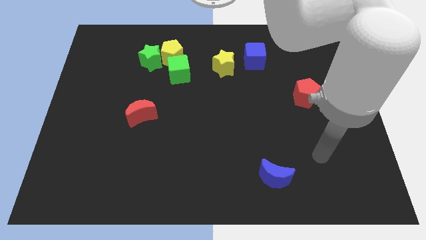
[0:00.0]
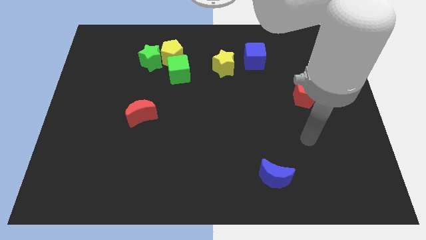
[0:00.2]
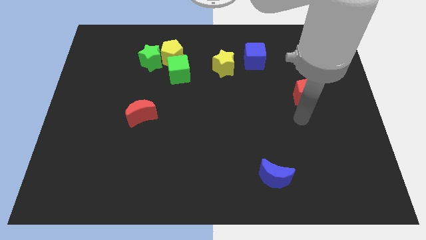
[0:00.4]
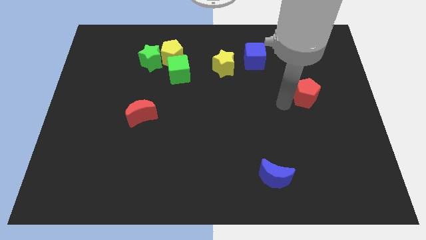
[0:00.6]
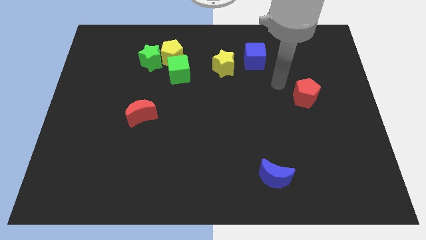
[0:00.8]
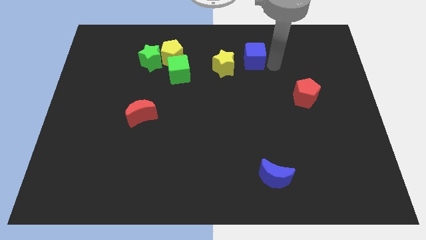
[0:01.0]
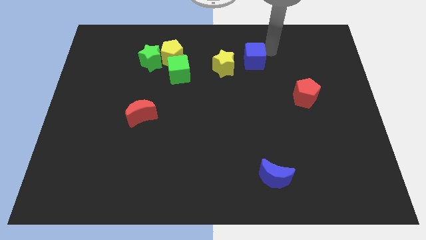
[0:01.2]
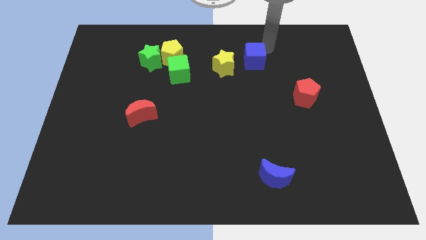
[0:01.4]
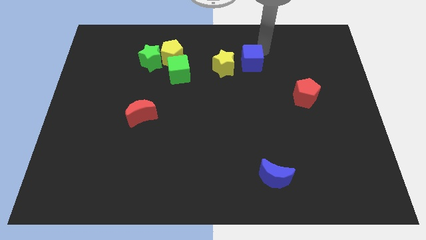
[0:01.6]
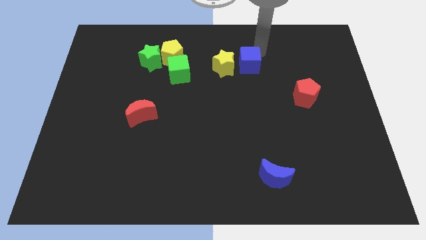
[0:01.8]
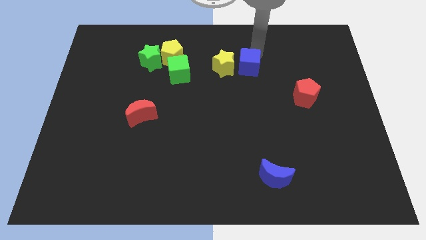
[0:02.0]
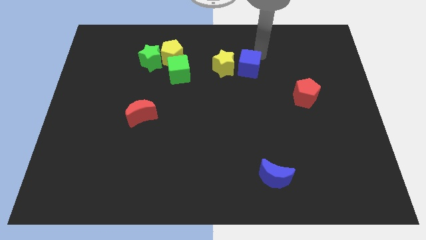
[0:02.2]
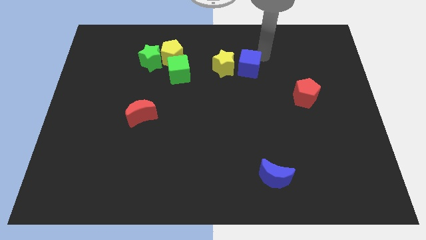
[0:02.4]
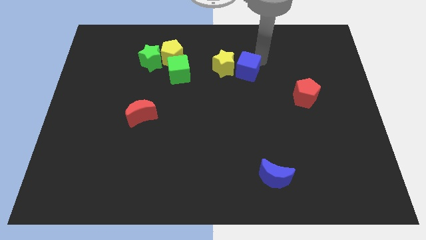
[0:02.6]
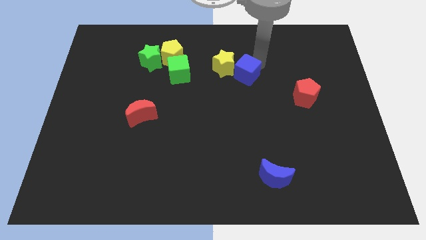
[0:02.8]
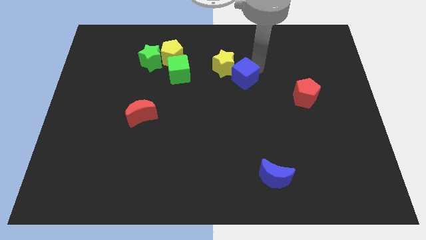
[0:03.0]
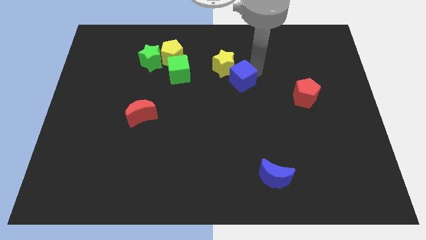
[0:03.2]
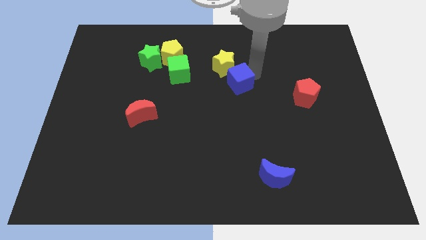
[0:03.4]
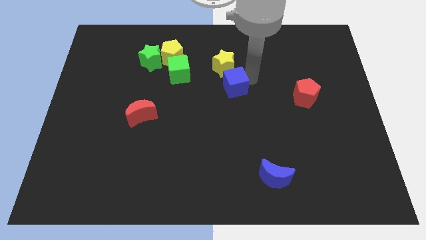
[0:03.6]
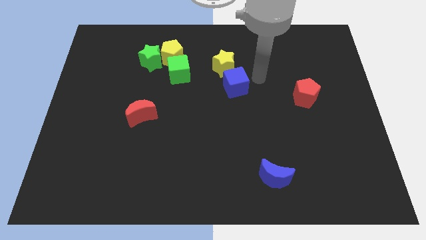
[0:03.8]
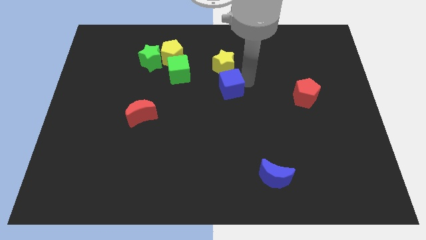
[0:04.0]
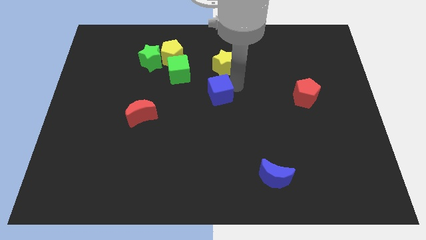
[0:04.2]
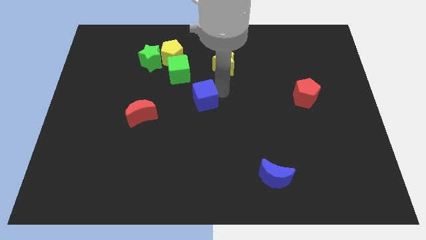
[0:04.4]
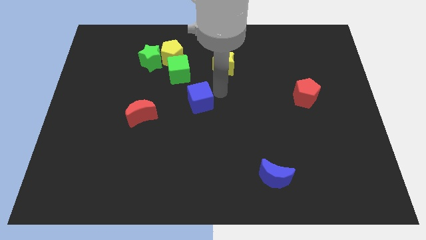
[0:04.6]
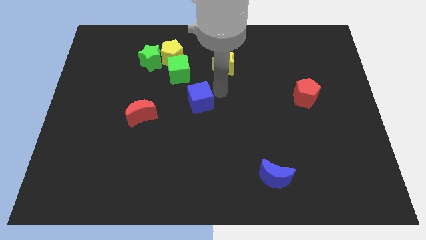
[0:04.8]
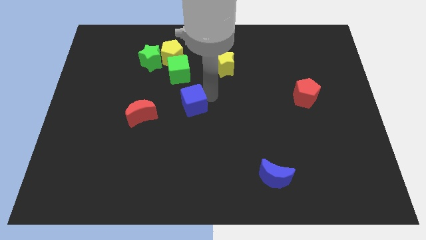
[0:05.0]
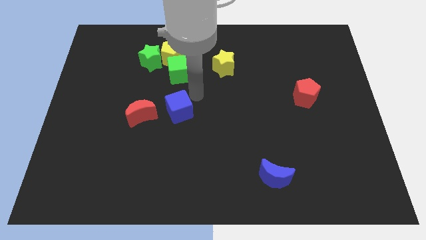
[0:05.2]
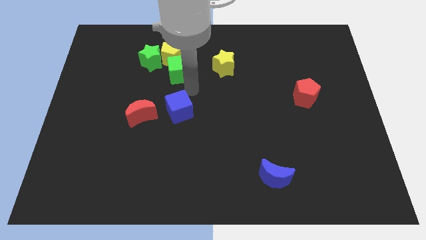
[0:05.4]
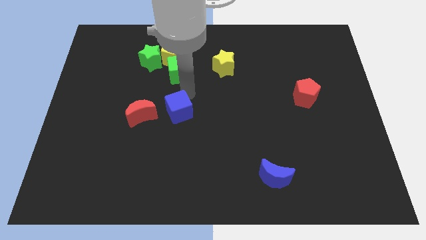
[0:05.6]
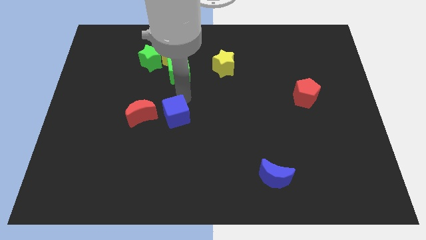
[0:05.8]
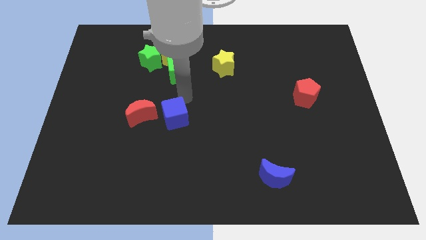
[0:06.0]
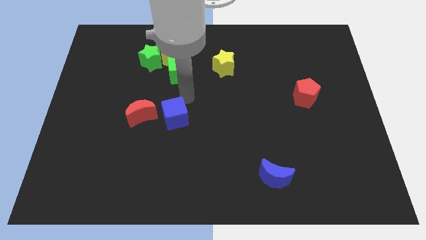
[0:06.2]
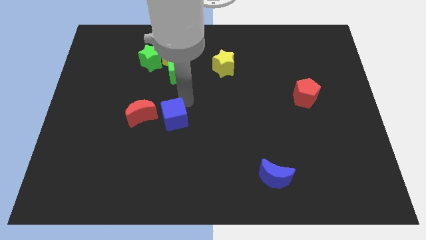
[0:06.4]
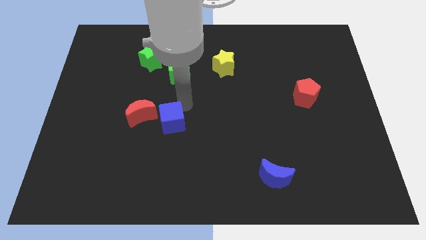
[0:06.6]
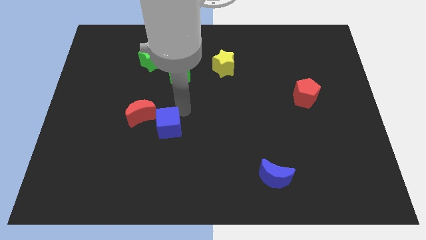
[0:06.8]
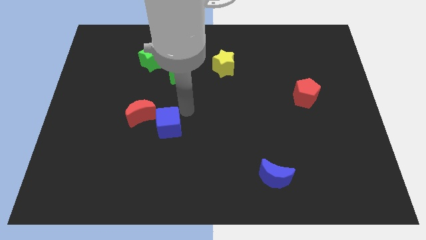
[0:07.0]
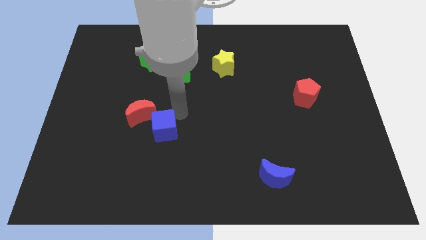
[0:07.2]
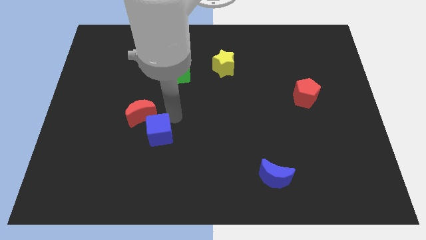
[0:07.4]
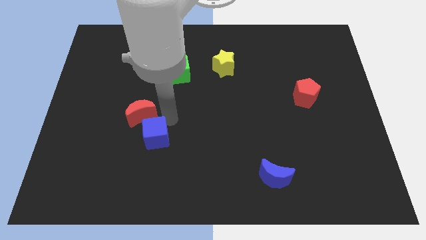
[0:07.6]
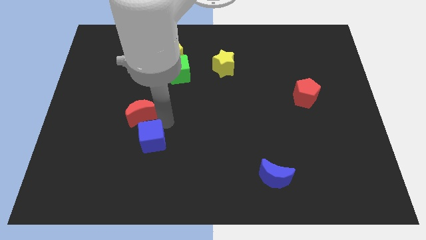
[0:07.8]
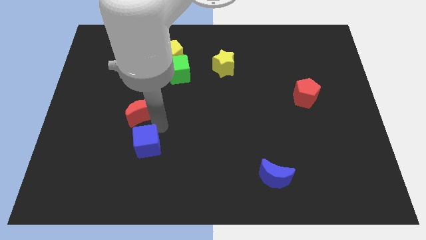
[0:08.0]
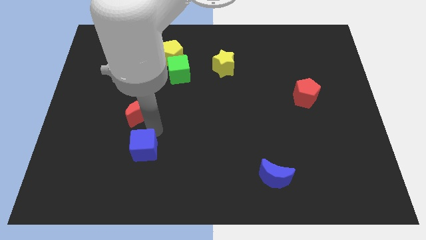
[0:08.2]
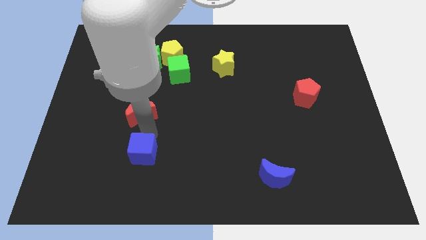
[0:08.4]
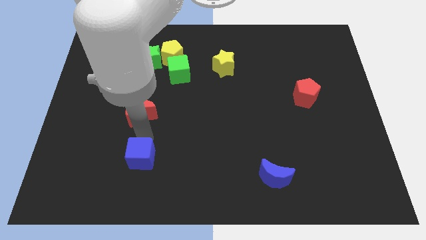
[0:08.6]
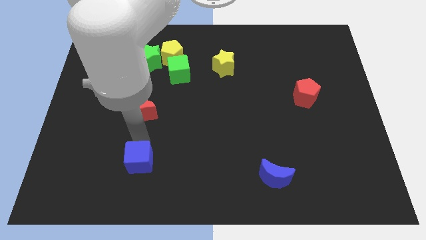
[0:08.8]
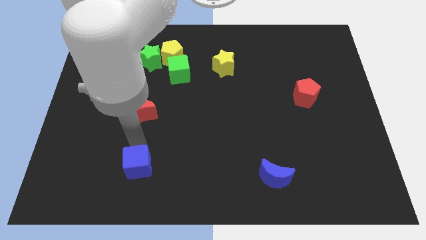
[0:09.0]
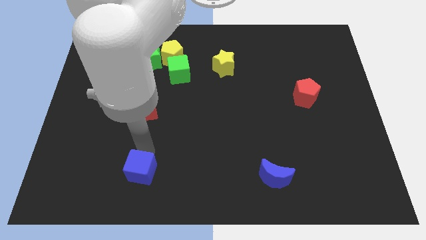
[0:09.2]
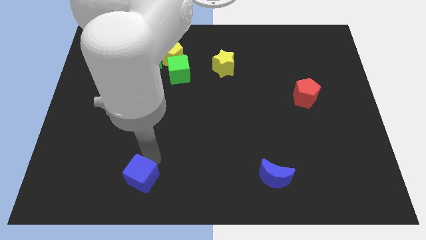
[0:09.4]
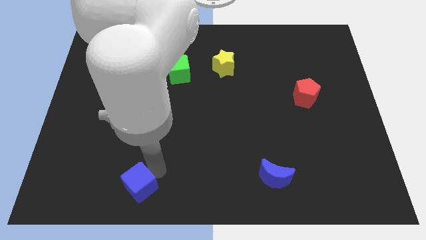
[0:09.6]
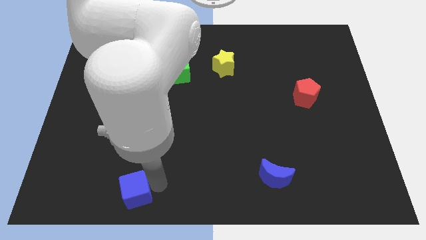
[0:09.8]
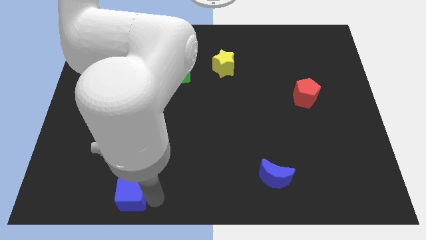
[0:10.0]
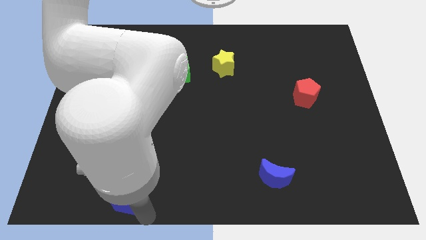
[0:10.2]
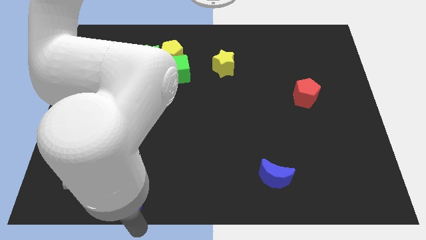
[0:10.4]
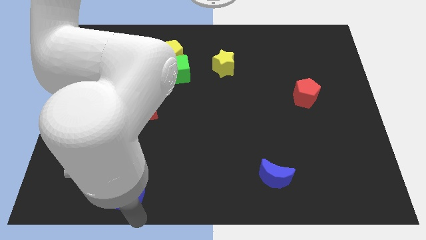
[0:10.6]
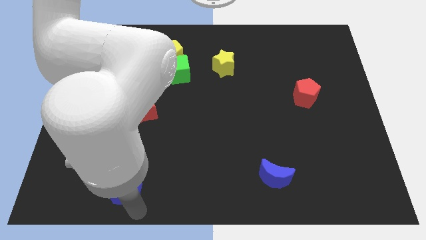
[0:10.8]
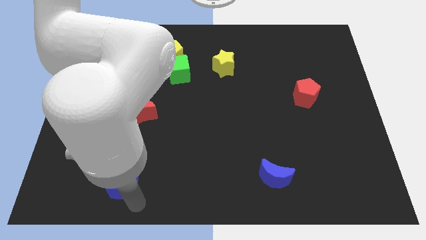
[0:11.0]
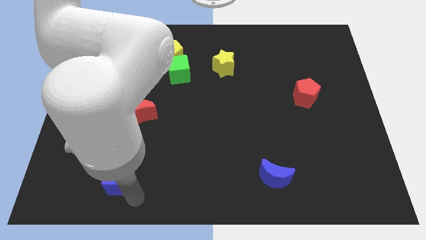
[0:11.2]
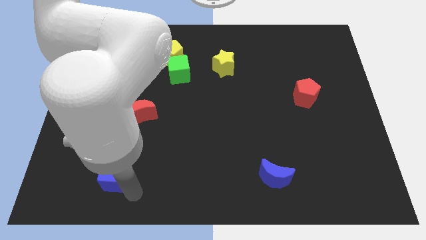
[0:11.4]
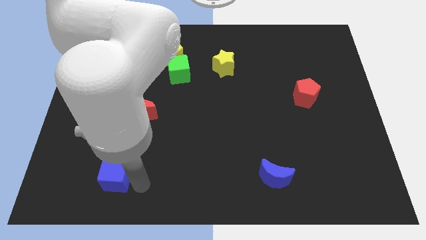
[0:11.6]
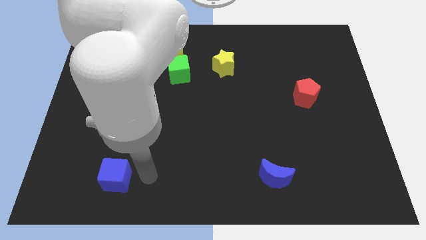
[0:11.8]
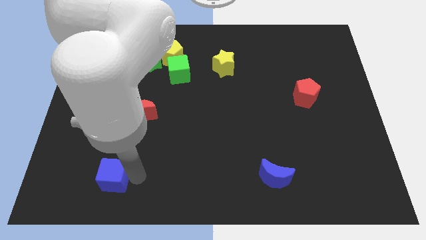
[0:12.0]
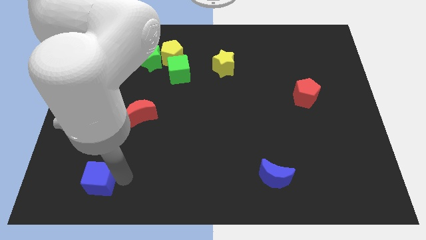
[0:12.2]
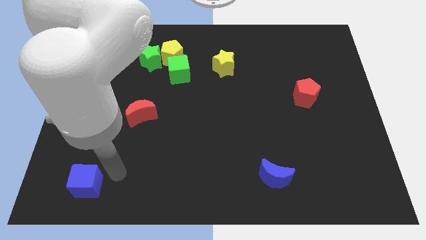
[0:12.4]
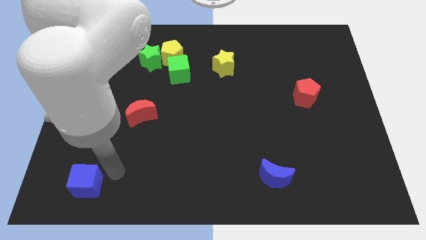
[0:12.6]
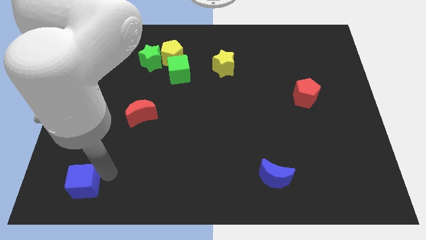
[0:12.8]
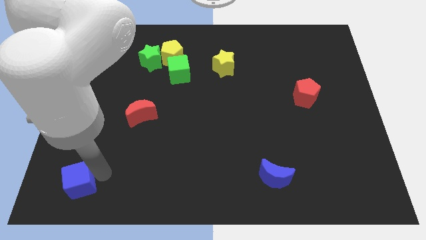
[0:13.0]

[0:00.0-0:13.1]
push the blue cube to the bottom left of the board
